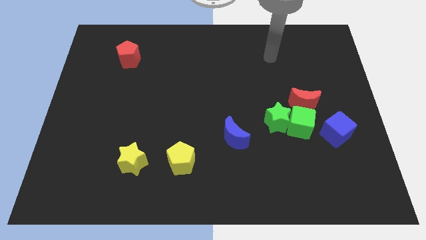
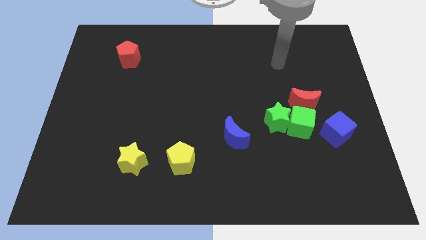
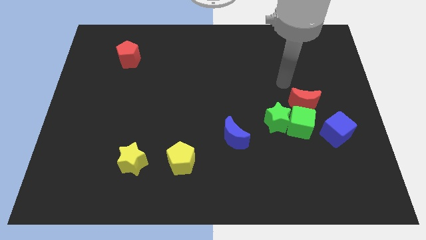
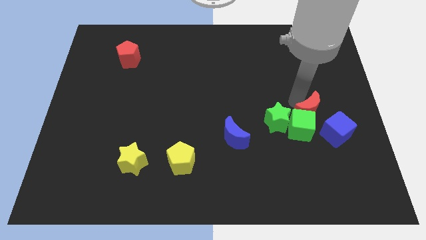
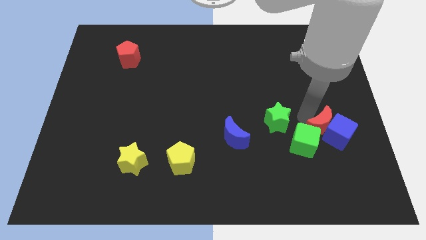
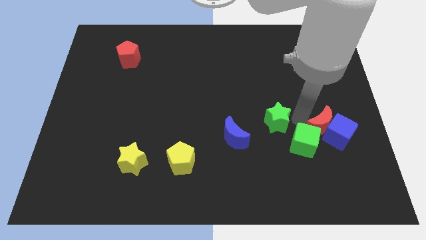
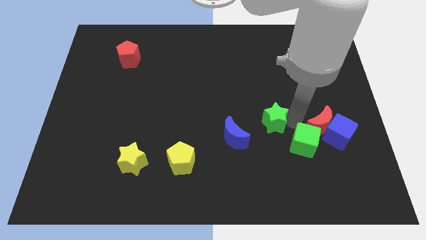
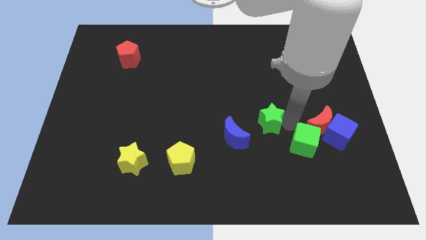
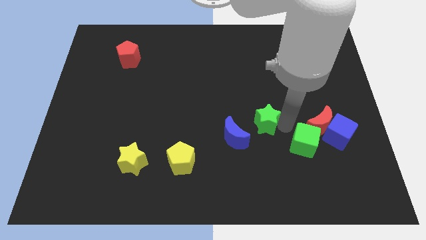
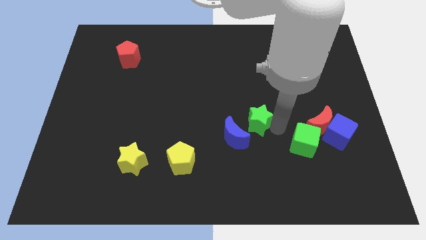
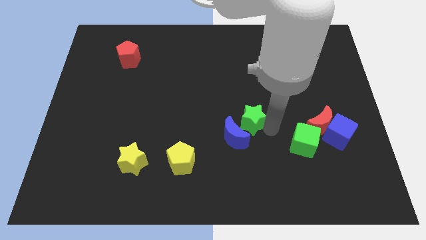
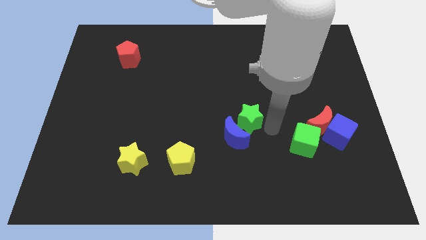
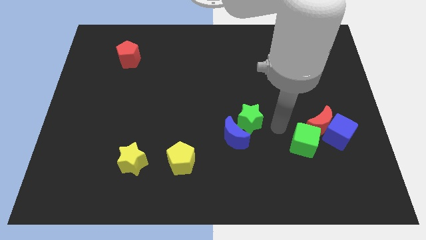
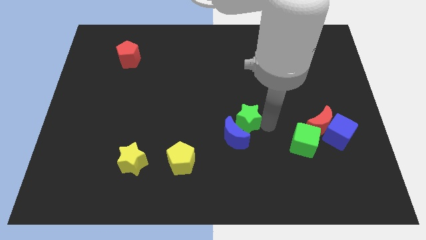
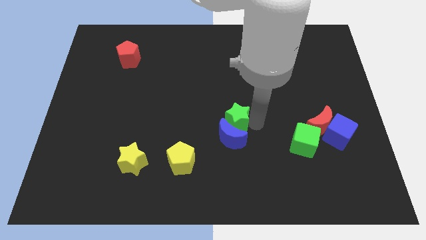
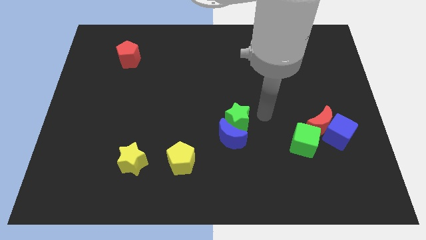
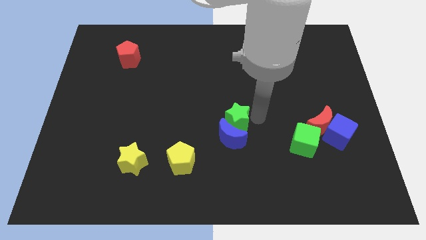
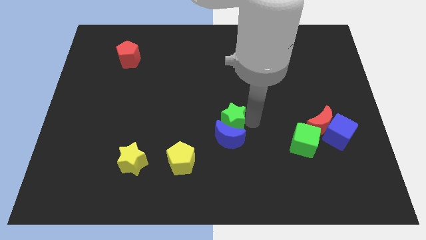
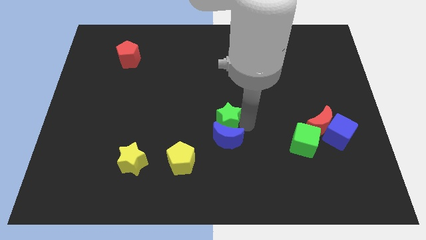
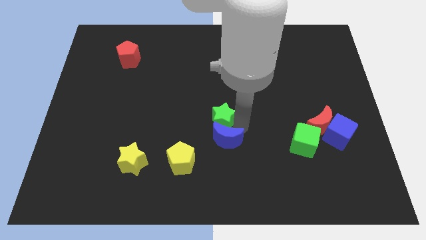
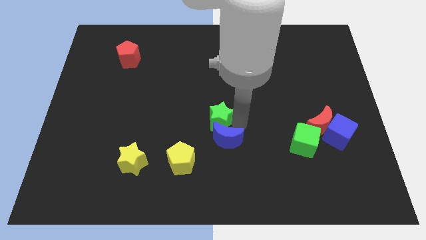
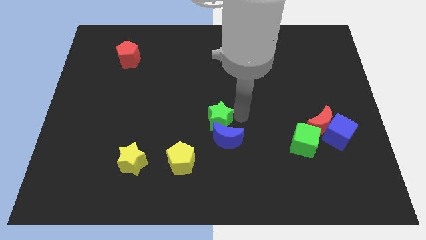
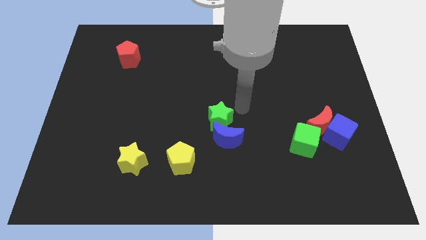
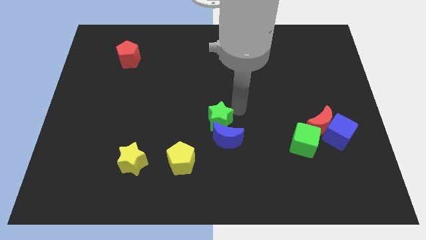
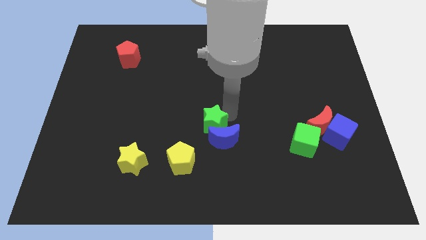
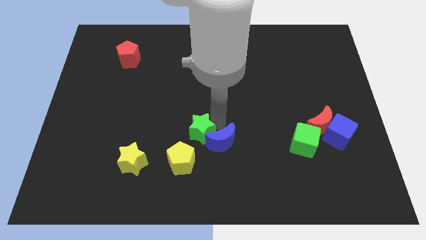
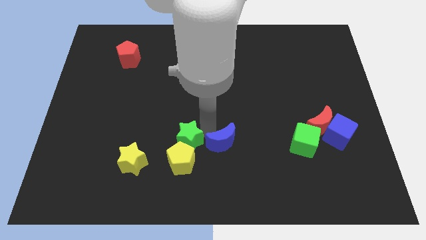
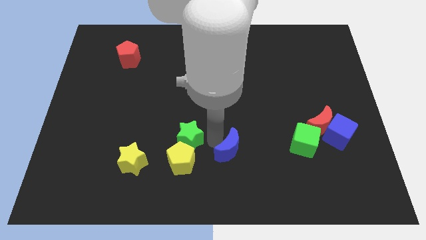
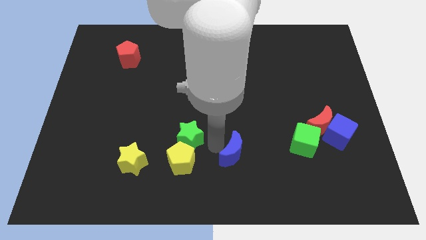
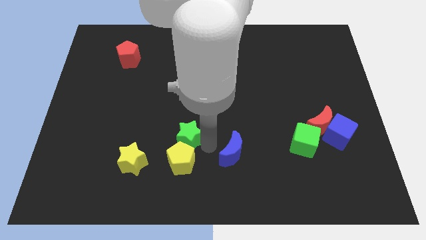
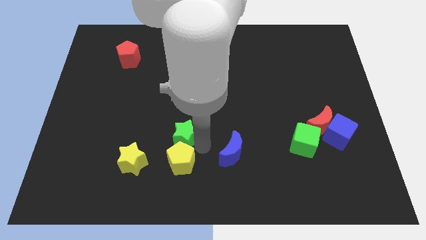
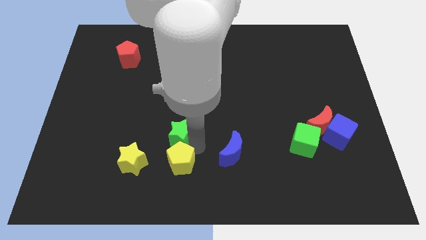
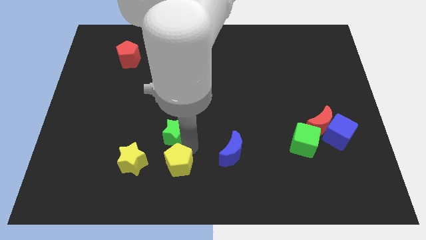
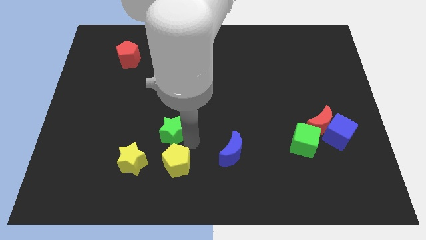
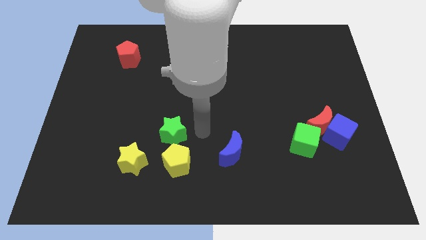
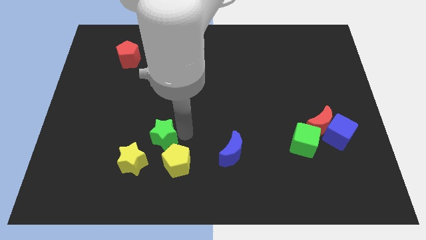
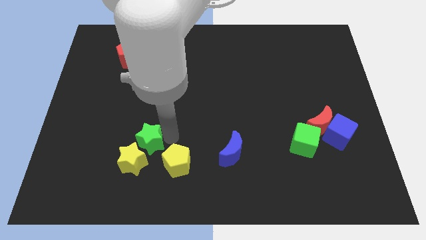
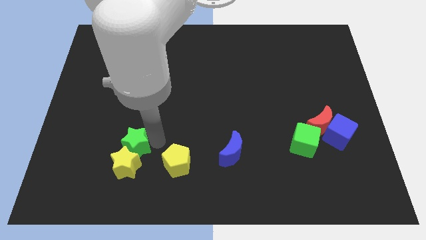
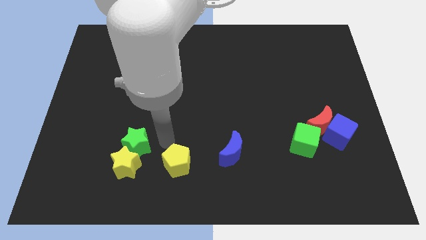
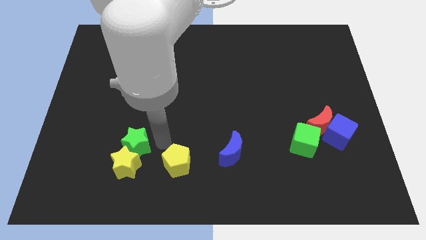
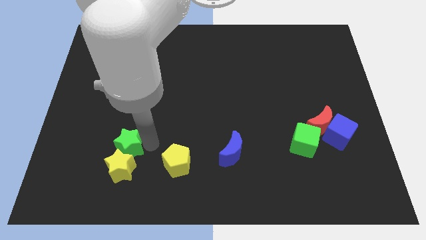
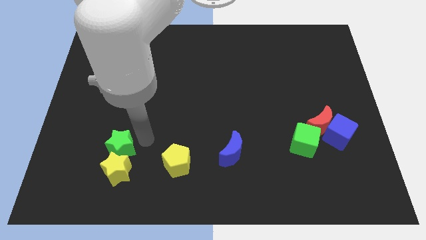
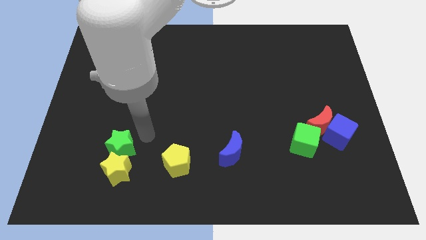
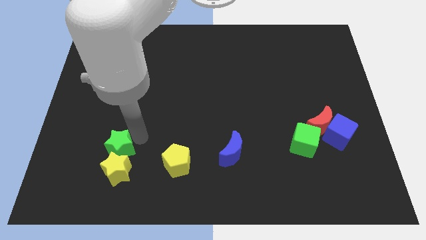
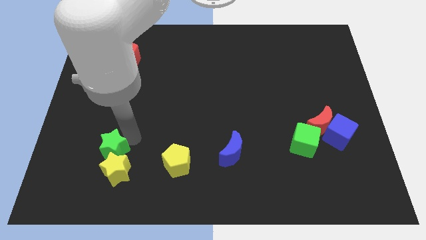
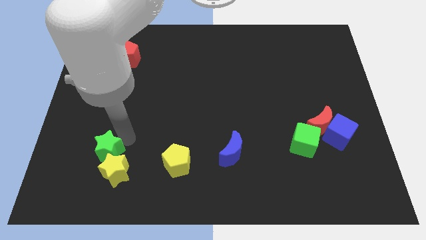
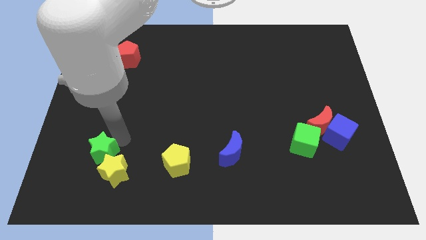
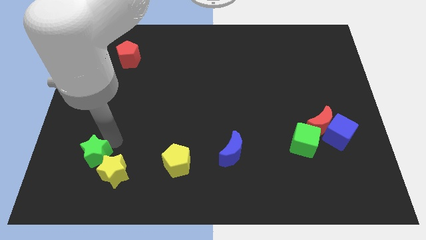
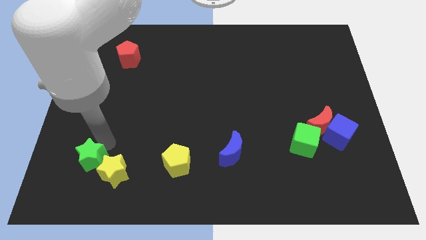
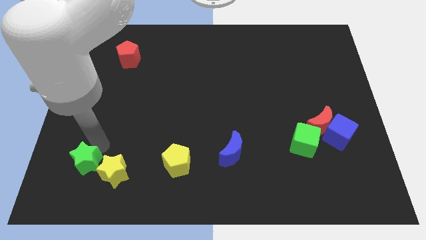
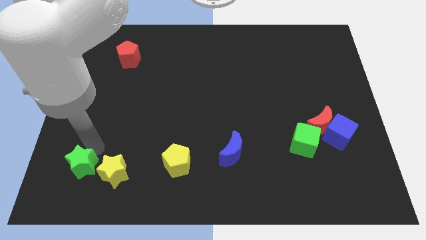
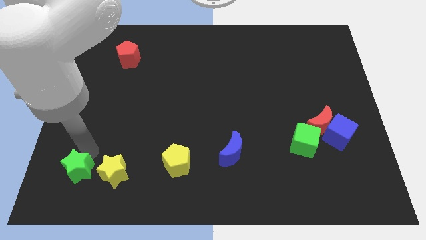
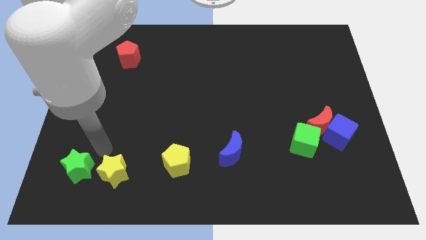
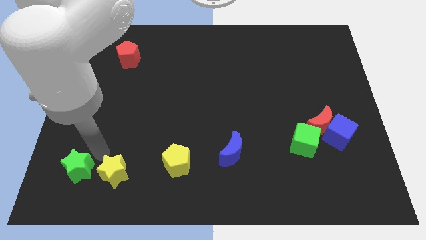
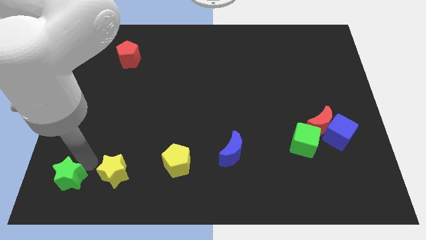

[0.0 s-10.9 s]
move the green star to the bottom left of the board

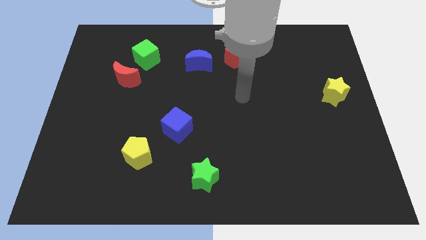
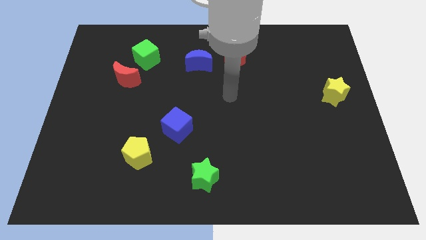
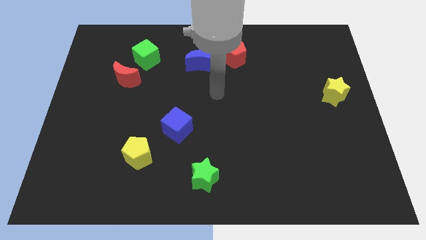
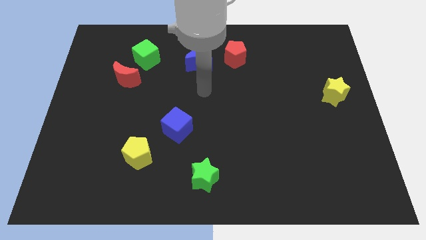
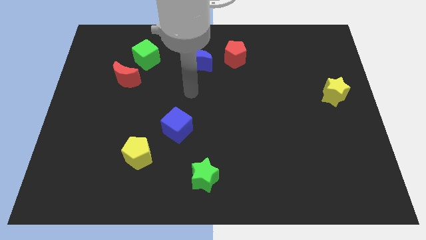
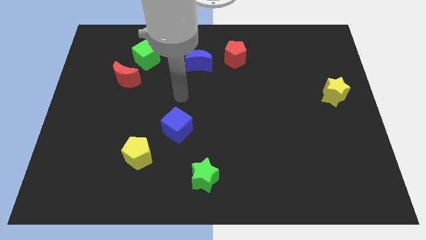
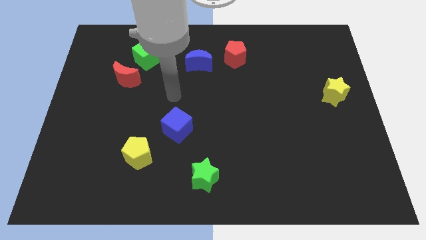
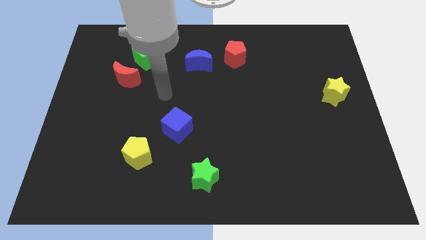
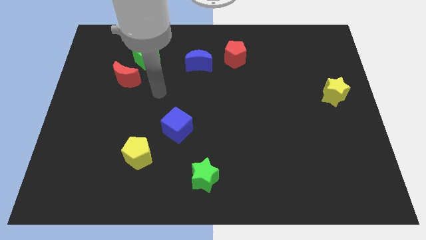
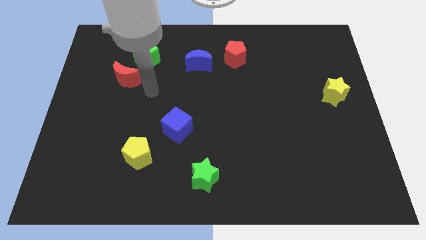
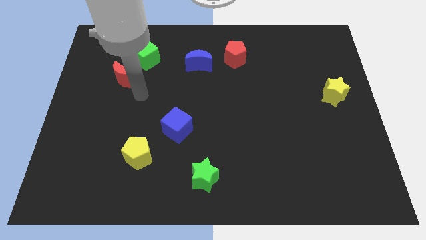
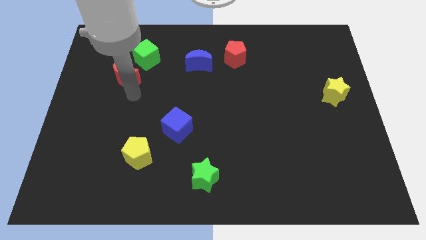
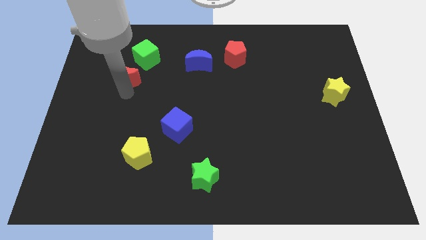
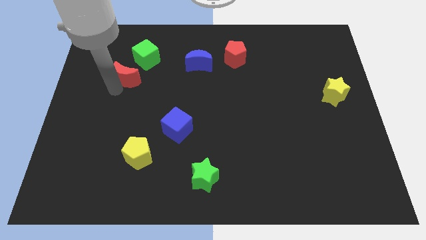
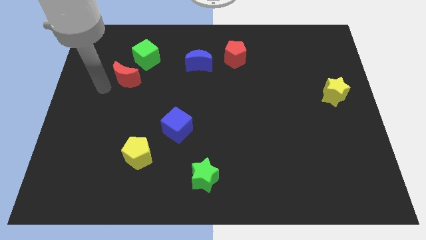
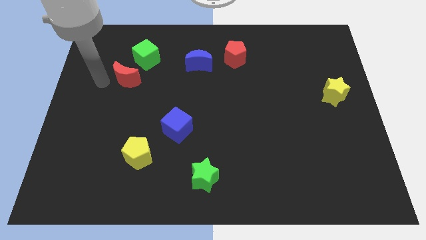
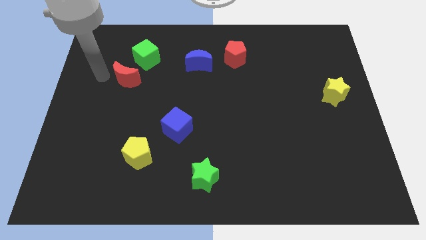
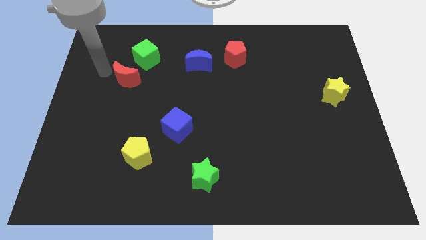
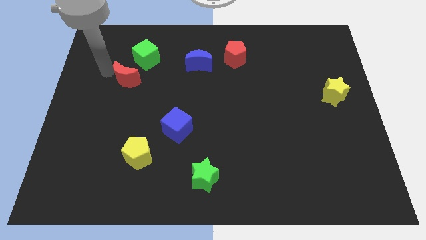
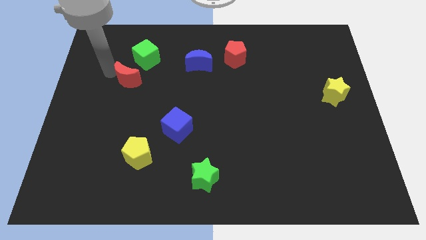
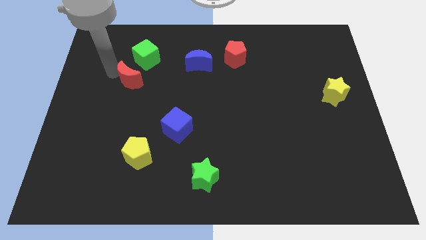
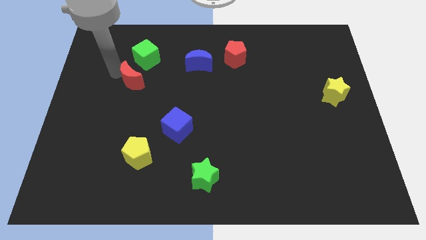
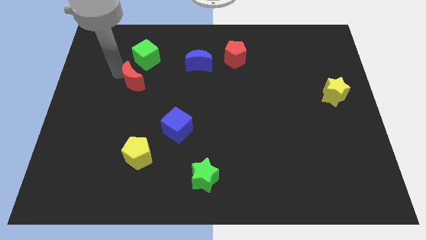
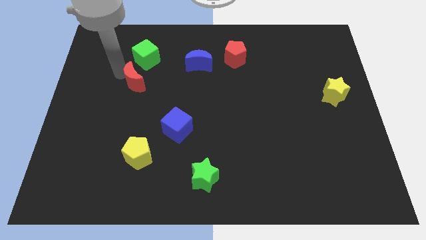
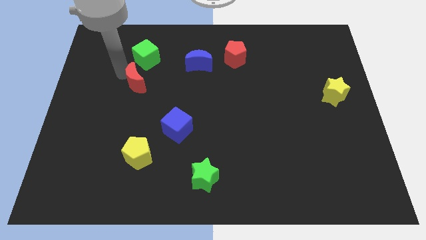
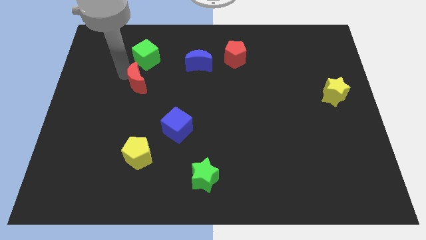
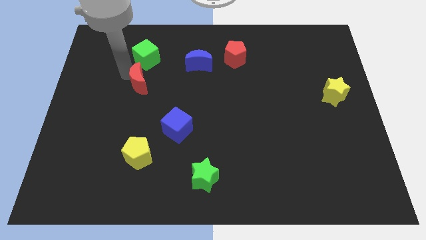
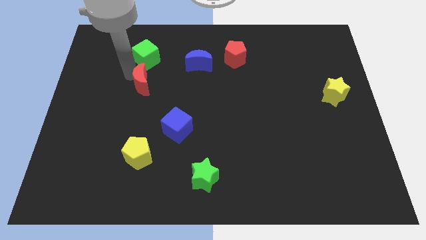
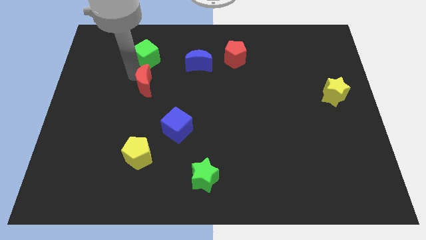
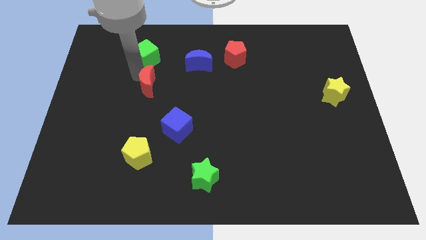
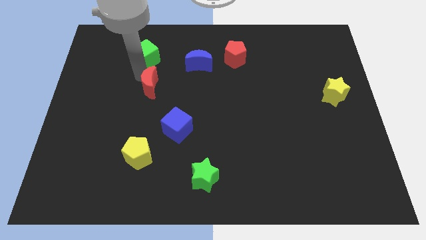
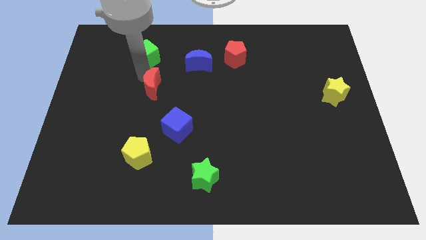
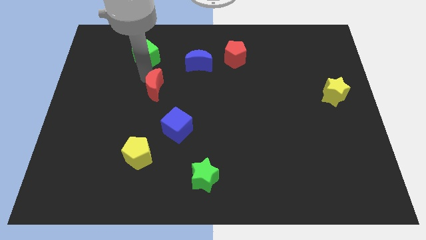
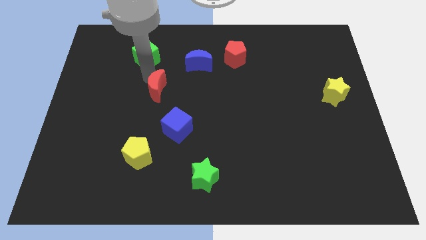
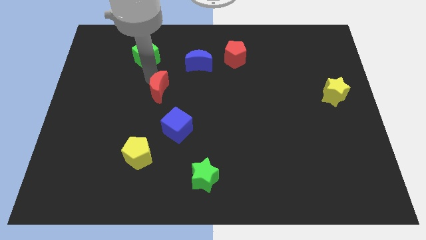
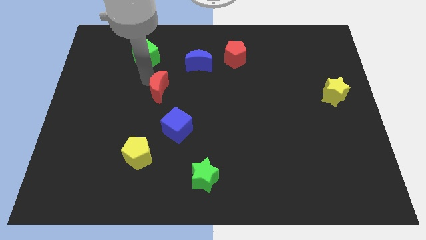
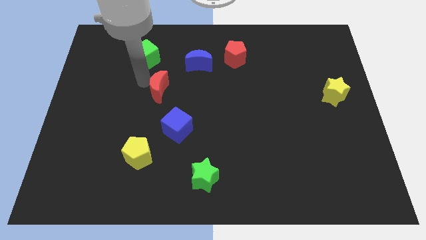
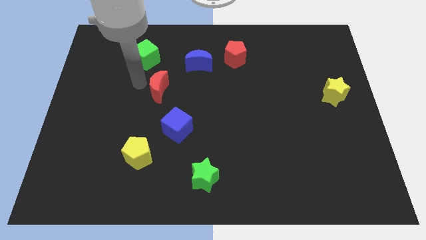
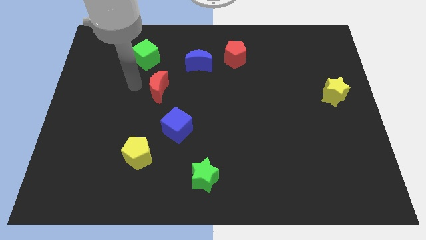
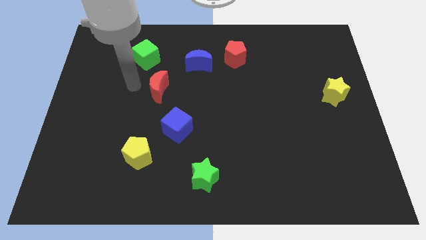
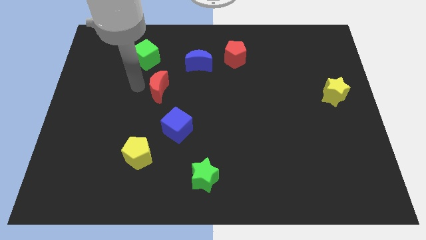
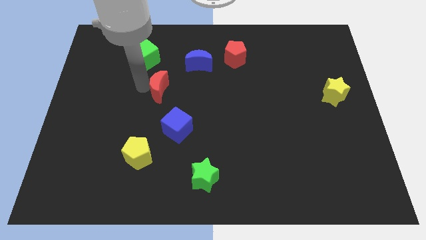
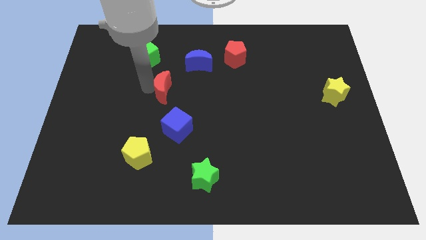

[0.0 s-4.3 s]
slide the red moon to the center
